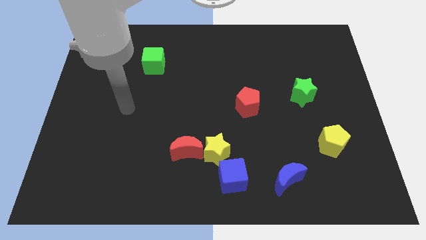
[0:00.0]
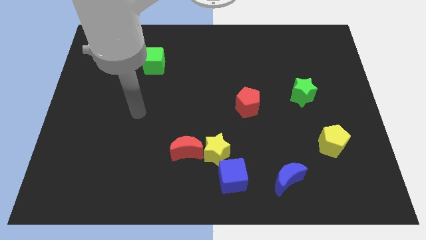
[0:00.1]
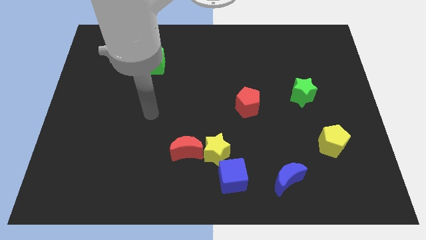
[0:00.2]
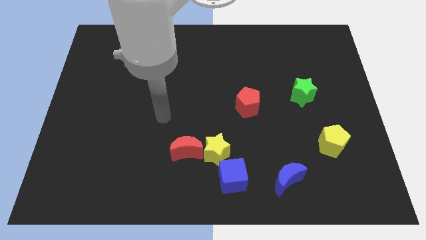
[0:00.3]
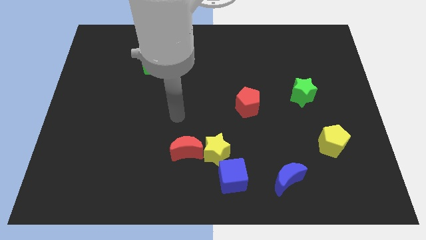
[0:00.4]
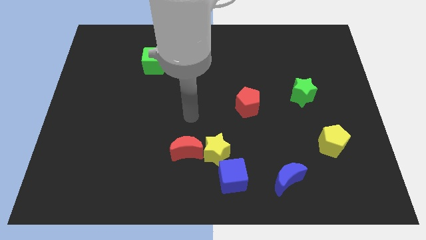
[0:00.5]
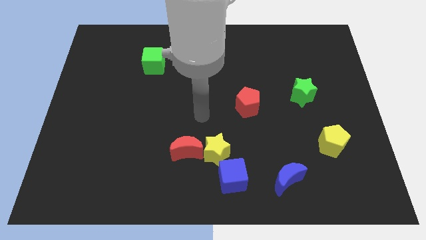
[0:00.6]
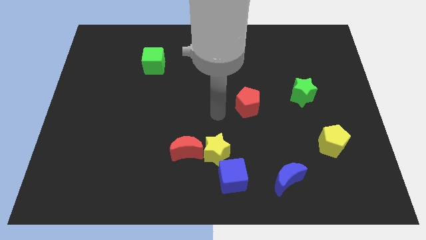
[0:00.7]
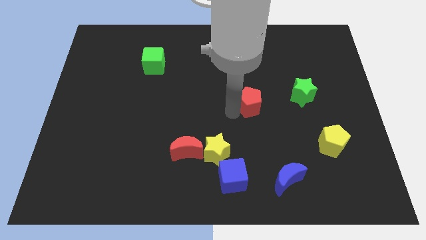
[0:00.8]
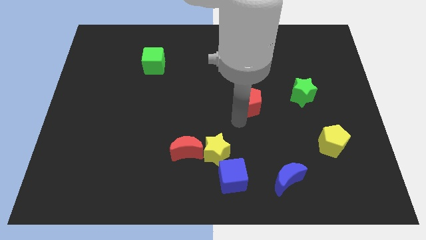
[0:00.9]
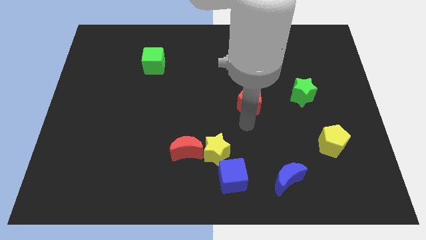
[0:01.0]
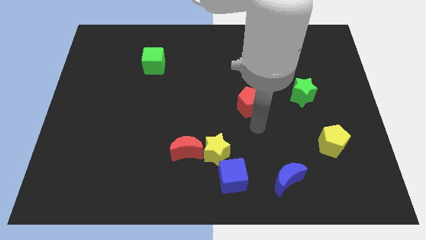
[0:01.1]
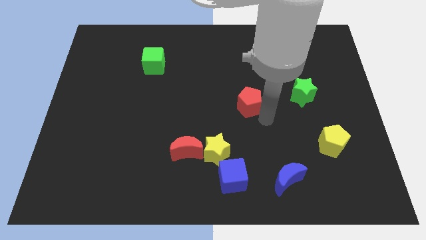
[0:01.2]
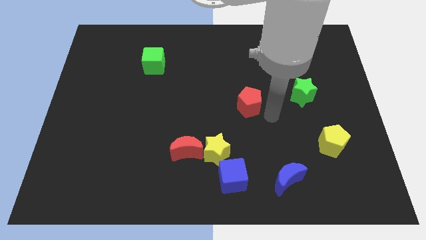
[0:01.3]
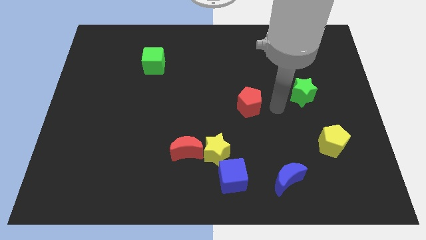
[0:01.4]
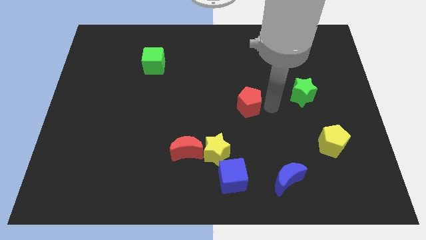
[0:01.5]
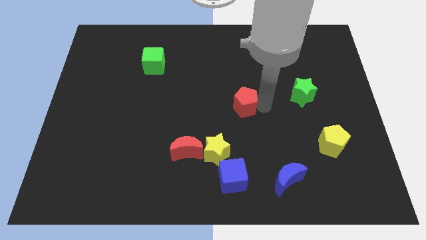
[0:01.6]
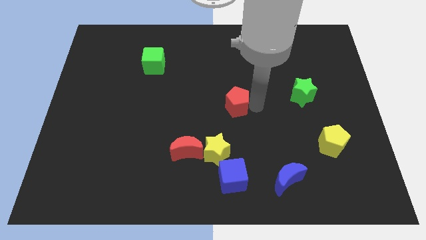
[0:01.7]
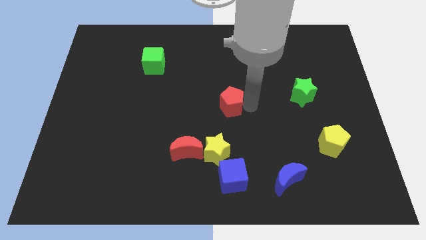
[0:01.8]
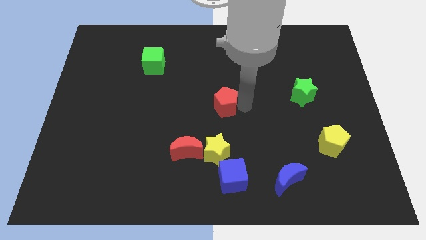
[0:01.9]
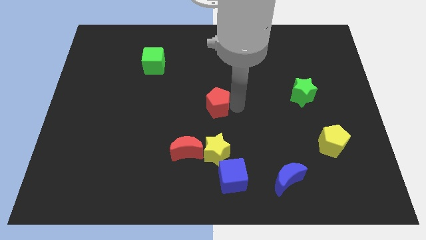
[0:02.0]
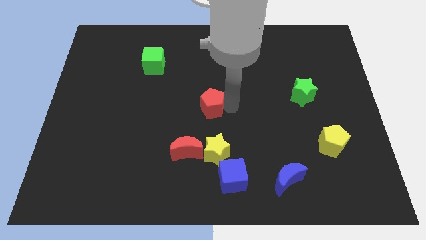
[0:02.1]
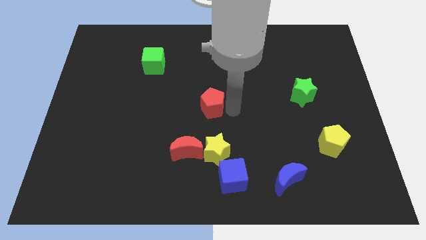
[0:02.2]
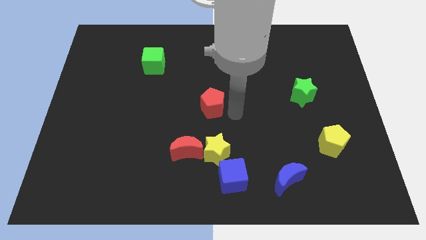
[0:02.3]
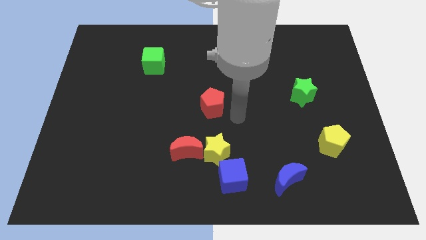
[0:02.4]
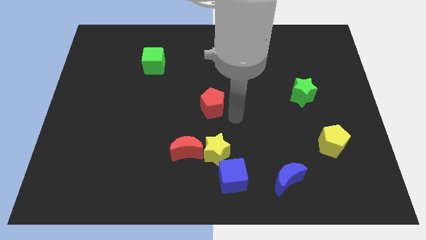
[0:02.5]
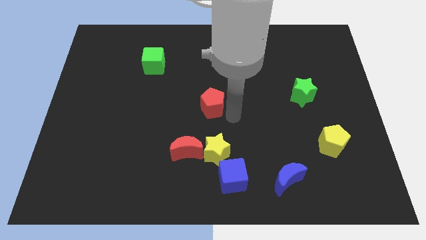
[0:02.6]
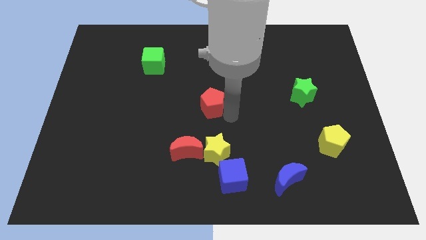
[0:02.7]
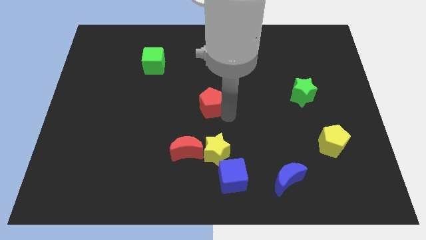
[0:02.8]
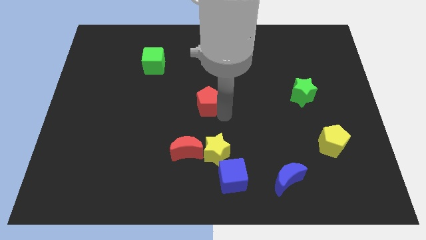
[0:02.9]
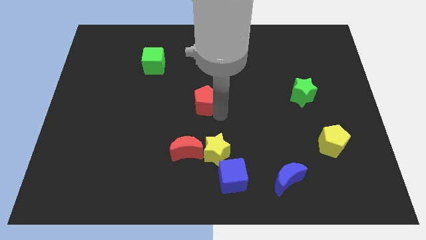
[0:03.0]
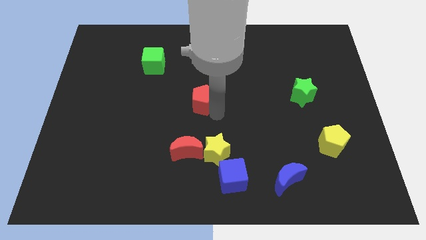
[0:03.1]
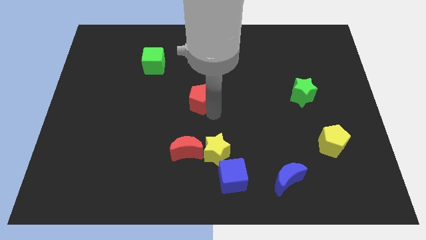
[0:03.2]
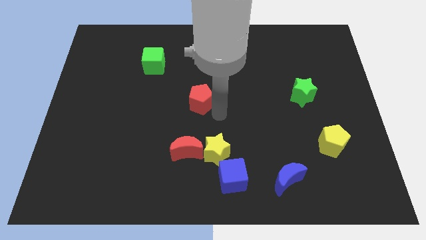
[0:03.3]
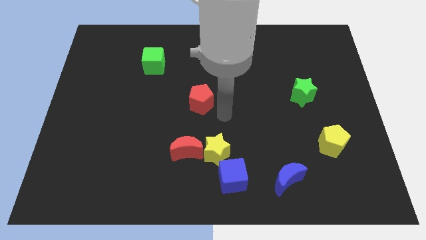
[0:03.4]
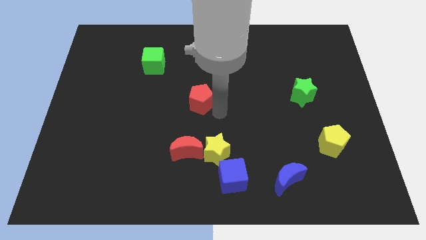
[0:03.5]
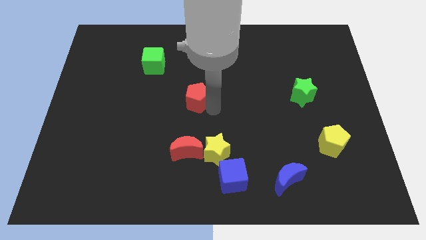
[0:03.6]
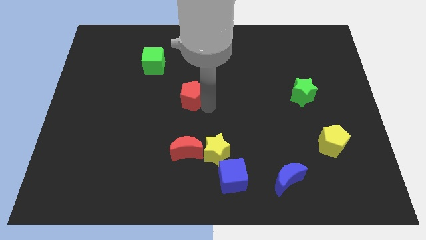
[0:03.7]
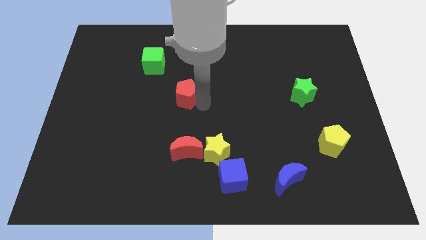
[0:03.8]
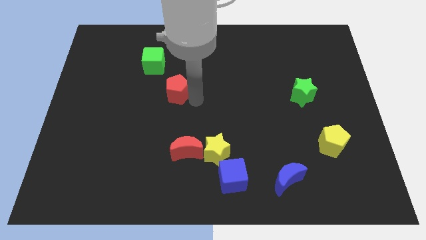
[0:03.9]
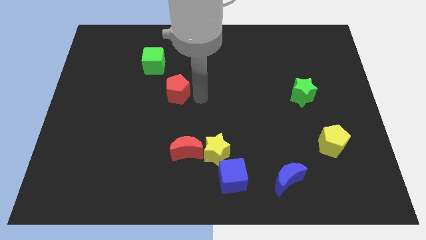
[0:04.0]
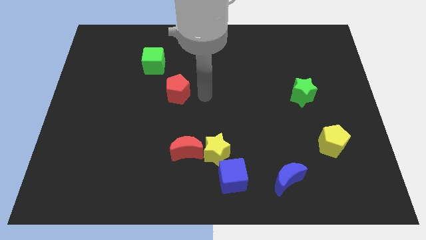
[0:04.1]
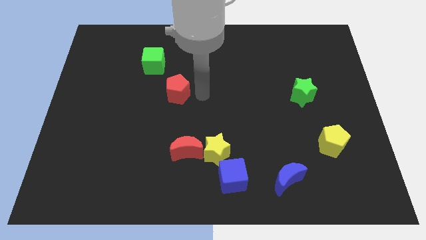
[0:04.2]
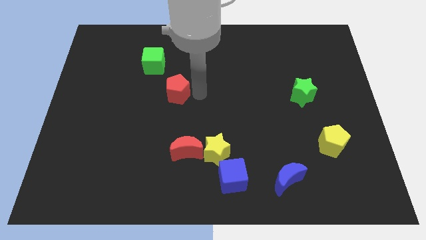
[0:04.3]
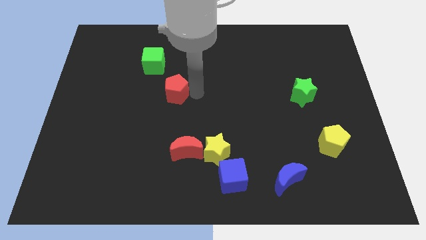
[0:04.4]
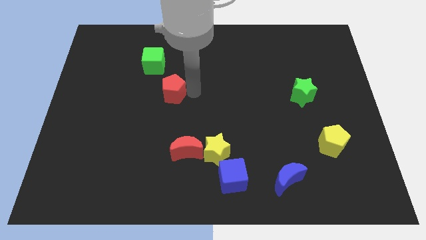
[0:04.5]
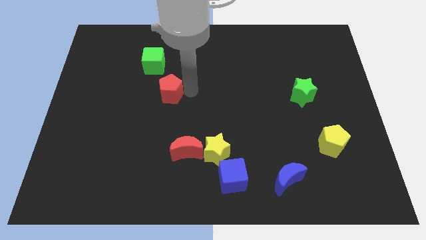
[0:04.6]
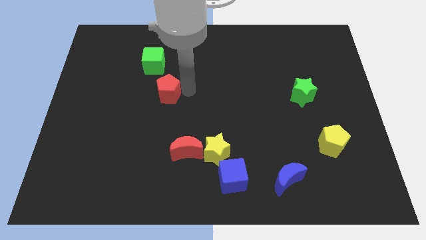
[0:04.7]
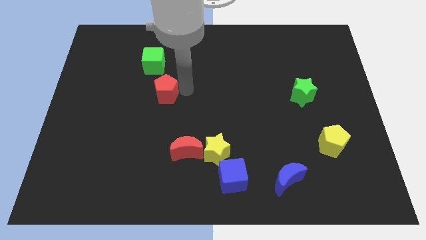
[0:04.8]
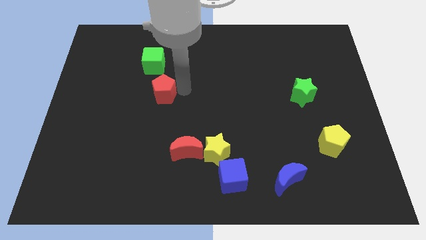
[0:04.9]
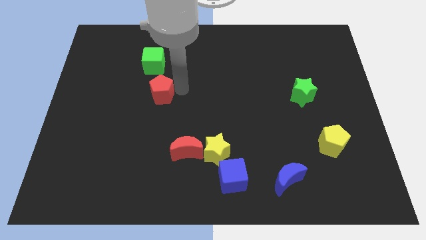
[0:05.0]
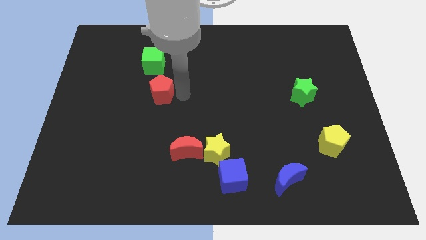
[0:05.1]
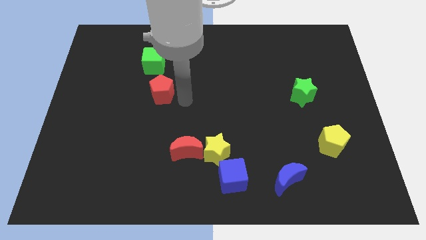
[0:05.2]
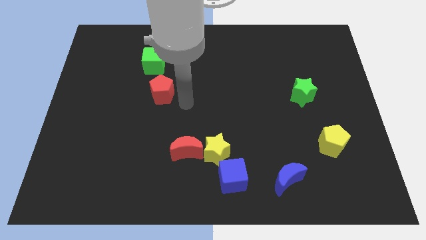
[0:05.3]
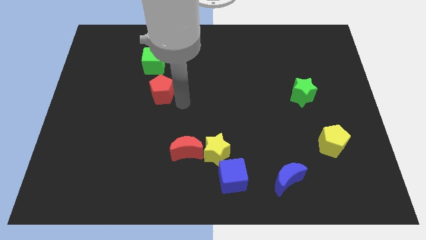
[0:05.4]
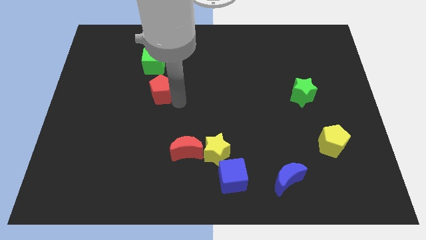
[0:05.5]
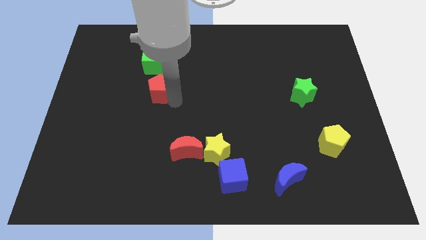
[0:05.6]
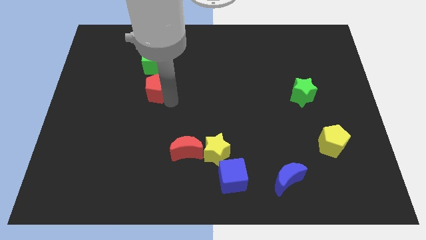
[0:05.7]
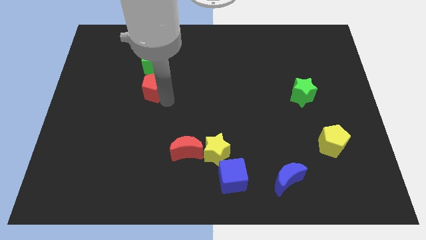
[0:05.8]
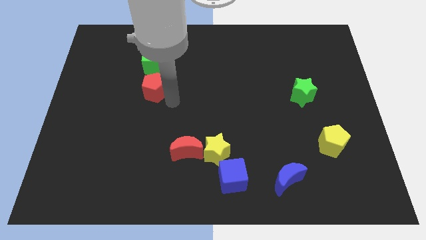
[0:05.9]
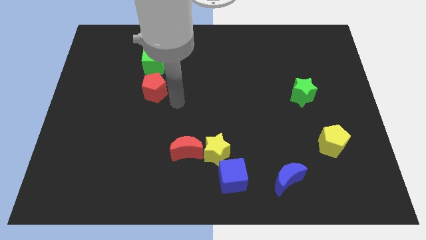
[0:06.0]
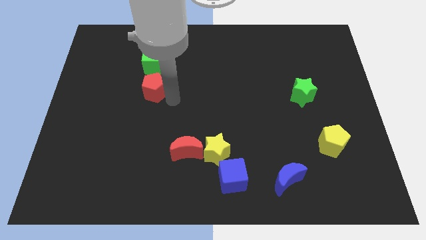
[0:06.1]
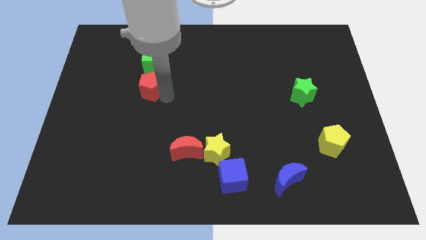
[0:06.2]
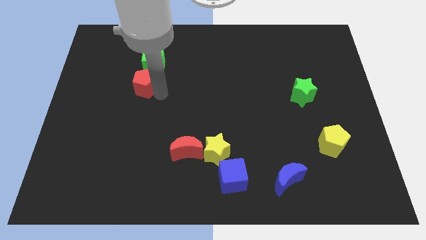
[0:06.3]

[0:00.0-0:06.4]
push the red pentagon to the bottom left side of the green cube
